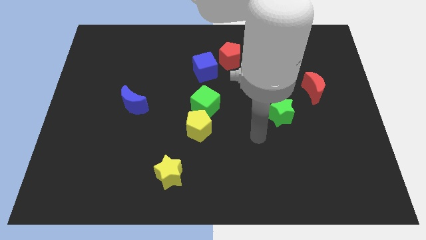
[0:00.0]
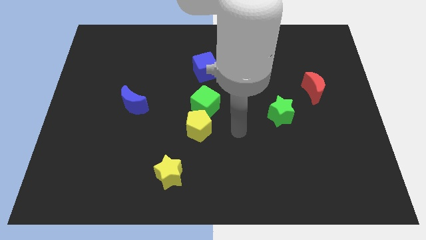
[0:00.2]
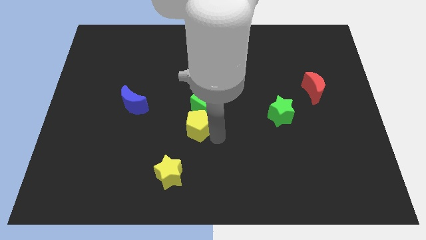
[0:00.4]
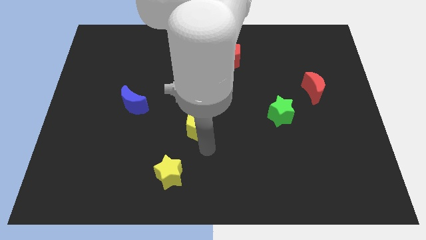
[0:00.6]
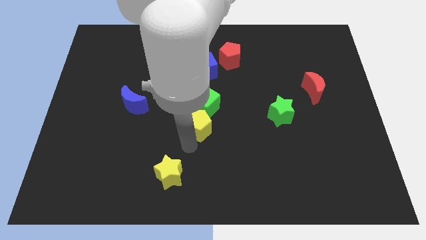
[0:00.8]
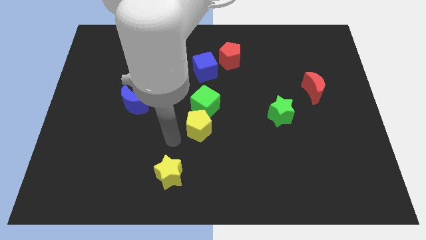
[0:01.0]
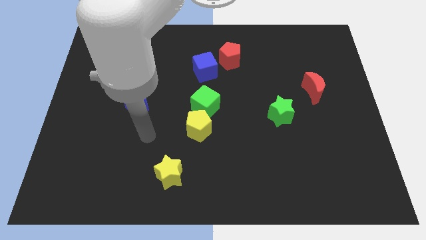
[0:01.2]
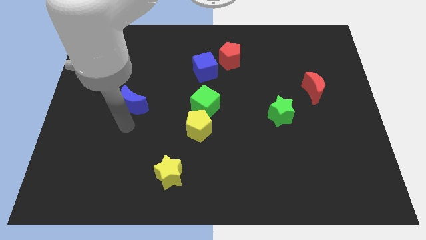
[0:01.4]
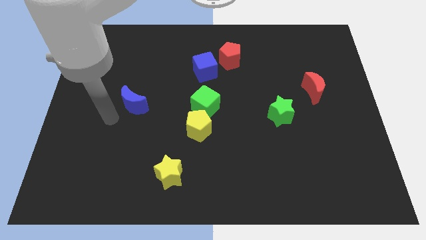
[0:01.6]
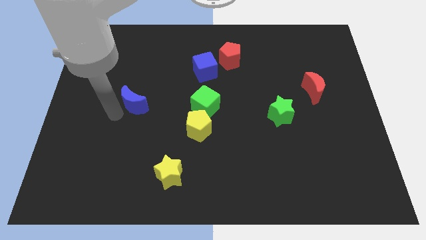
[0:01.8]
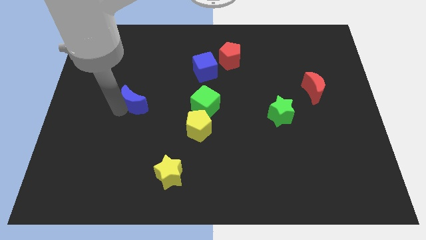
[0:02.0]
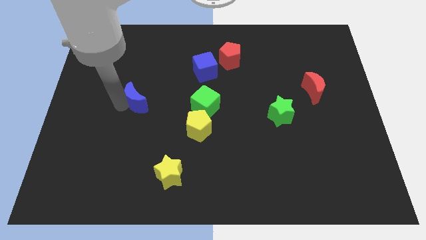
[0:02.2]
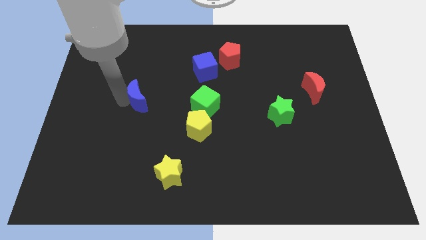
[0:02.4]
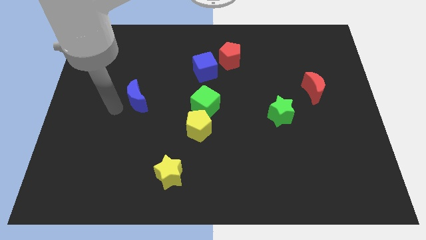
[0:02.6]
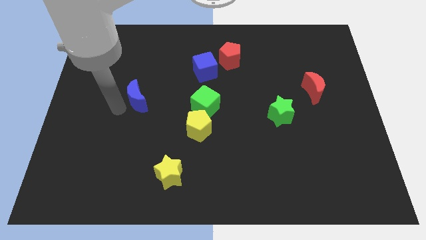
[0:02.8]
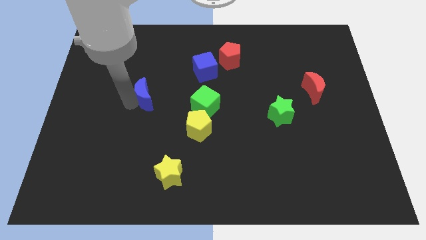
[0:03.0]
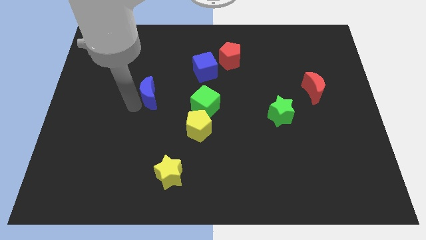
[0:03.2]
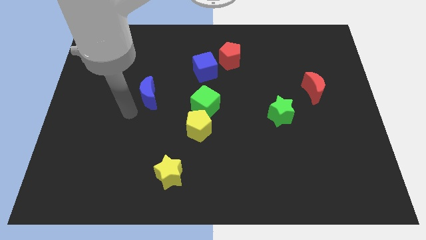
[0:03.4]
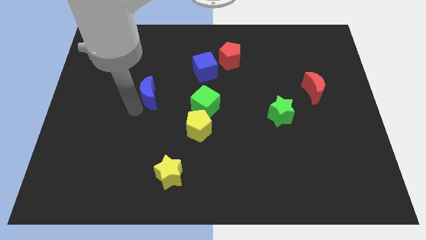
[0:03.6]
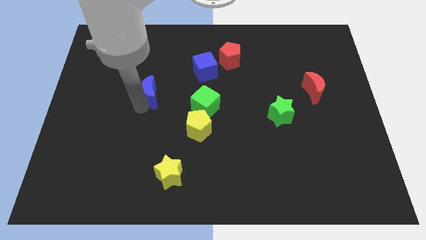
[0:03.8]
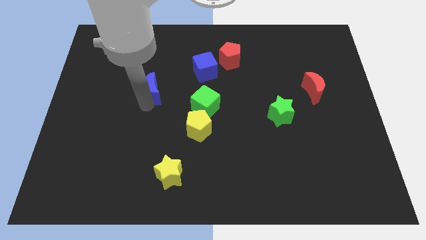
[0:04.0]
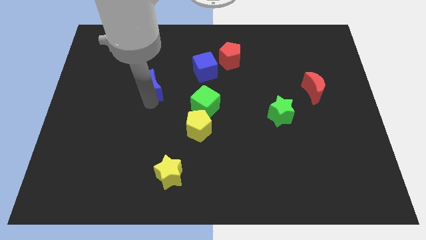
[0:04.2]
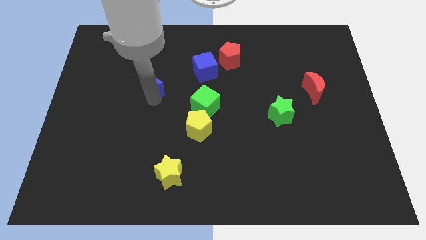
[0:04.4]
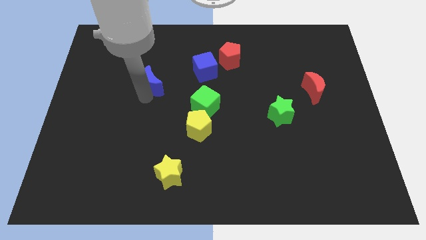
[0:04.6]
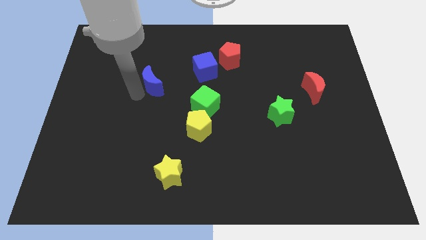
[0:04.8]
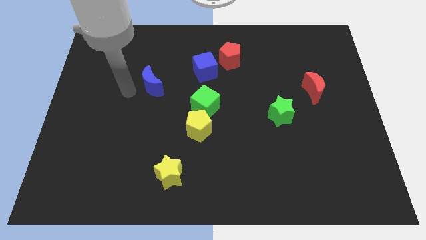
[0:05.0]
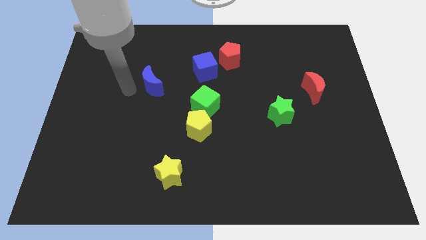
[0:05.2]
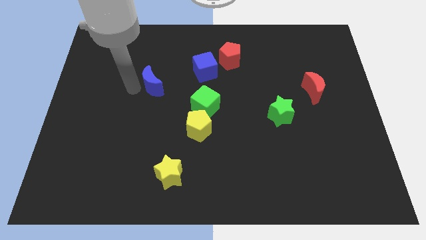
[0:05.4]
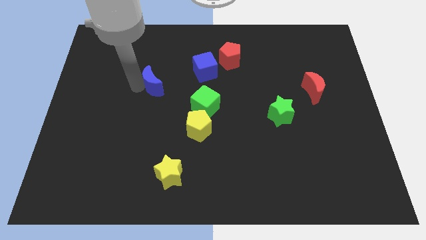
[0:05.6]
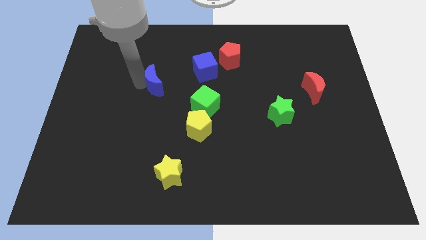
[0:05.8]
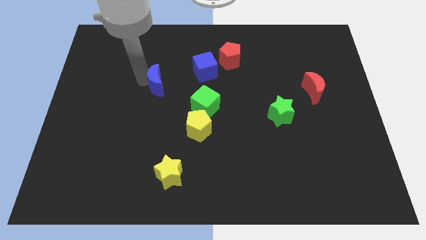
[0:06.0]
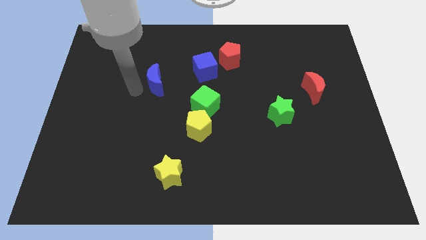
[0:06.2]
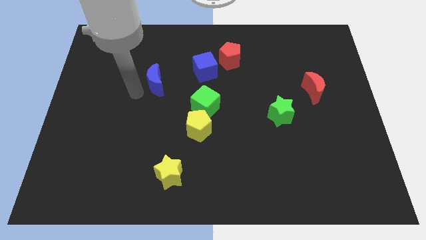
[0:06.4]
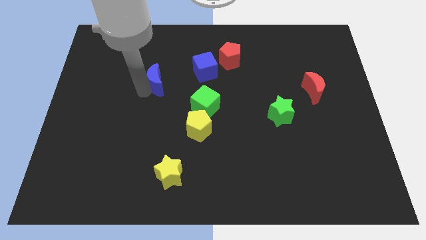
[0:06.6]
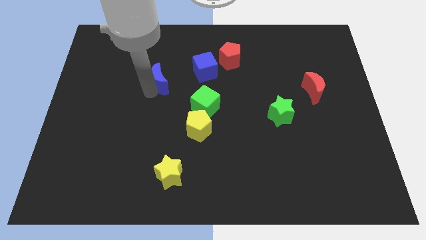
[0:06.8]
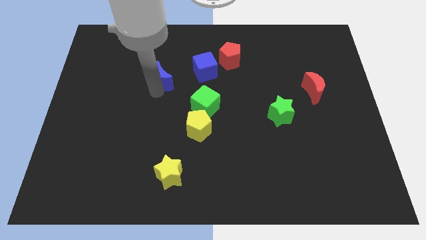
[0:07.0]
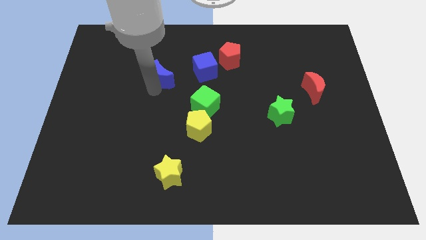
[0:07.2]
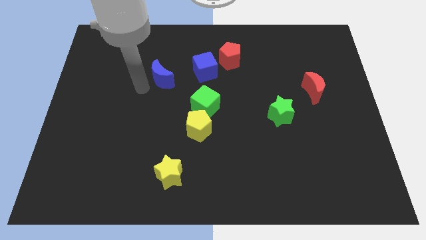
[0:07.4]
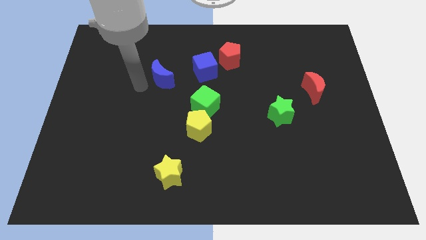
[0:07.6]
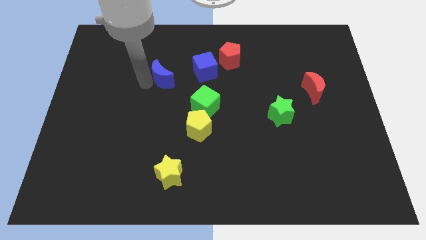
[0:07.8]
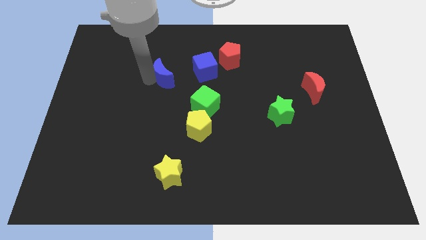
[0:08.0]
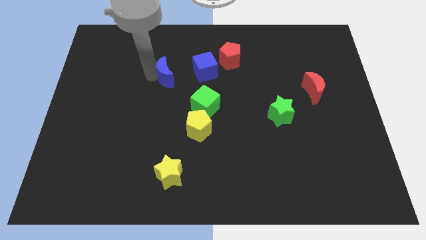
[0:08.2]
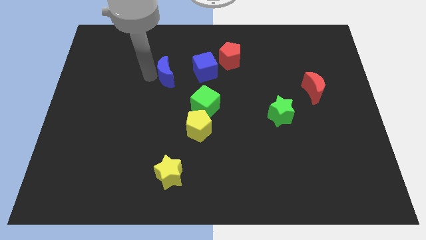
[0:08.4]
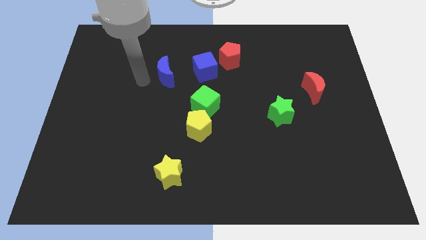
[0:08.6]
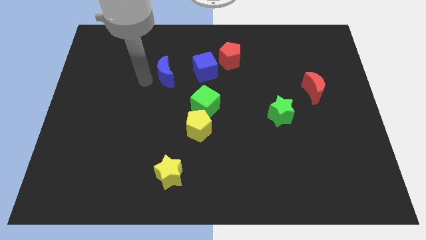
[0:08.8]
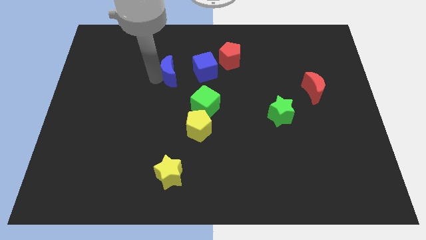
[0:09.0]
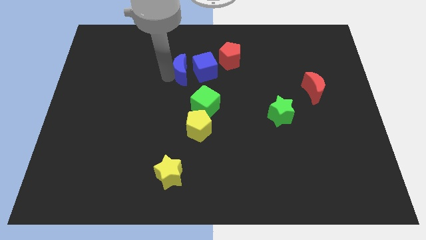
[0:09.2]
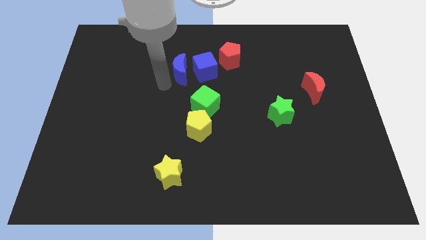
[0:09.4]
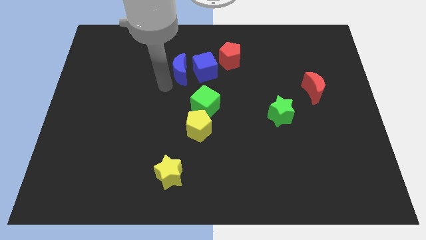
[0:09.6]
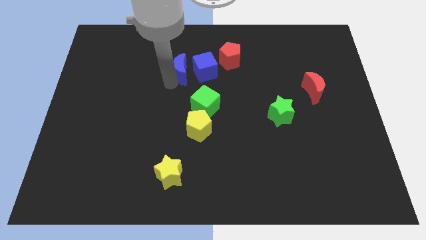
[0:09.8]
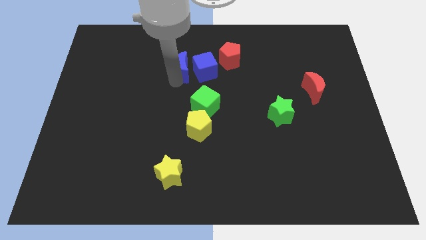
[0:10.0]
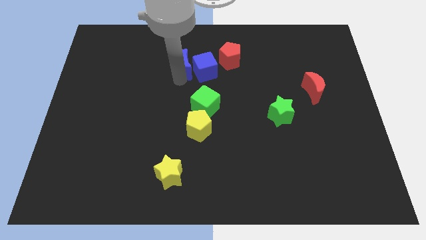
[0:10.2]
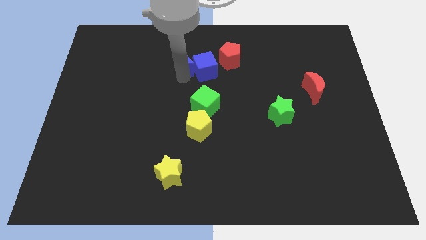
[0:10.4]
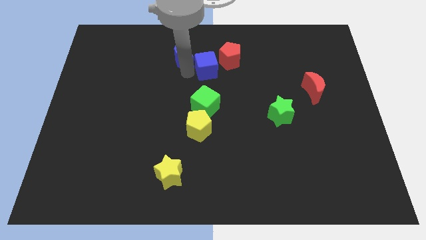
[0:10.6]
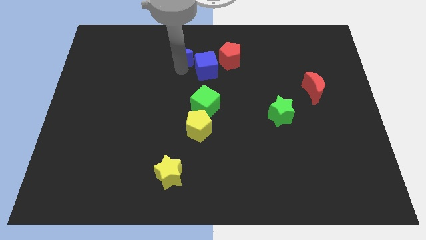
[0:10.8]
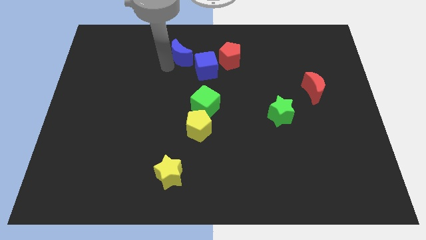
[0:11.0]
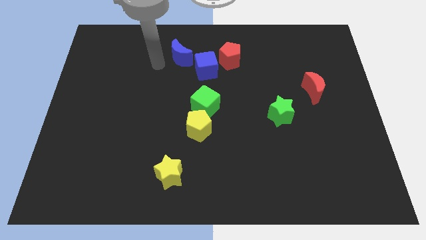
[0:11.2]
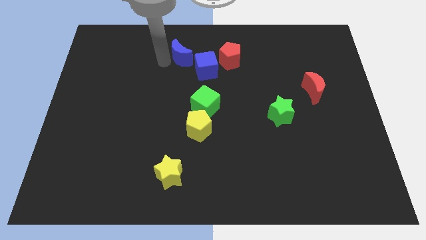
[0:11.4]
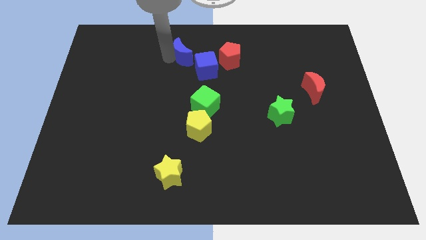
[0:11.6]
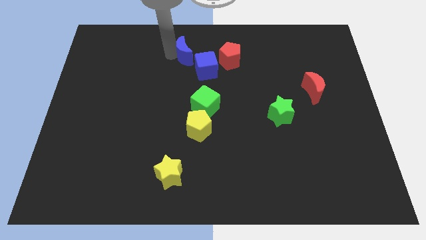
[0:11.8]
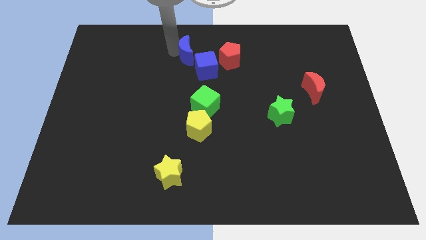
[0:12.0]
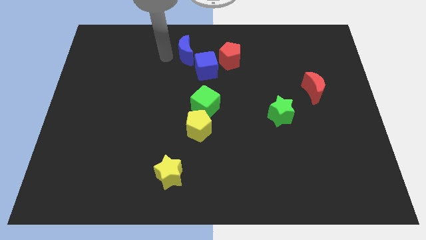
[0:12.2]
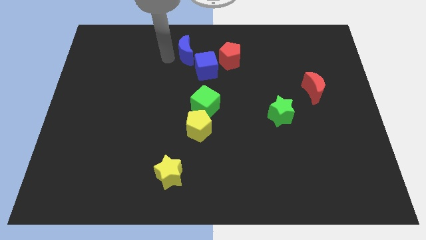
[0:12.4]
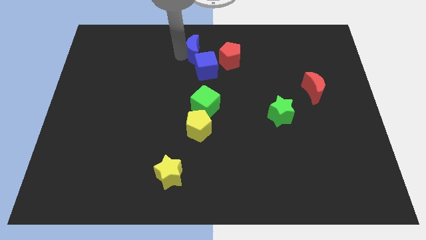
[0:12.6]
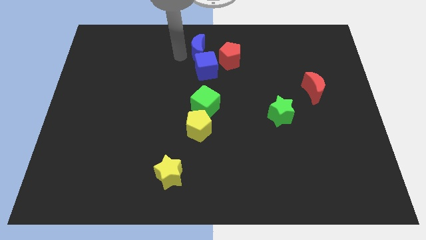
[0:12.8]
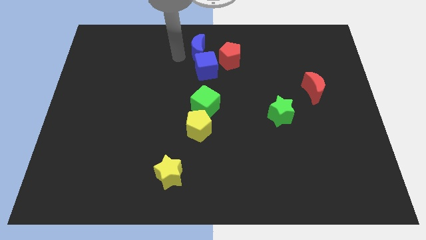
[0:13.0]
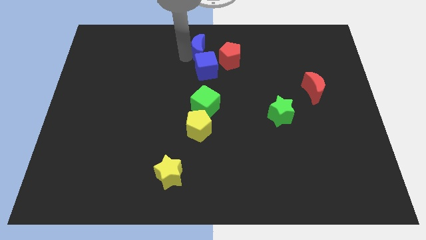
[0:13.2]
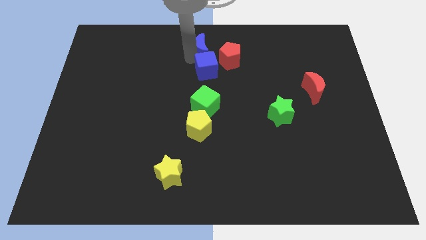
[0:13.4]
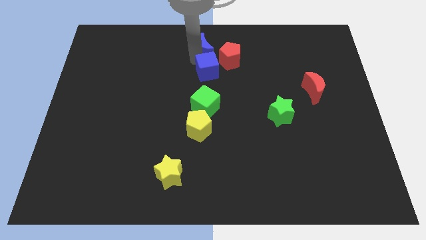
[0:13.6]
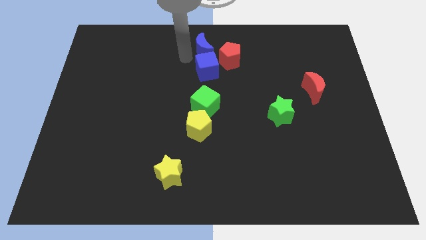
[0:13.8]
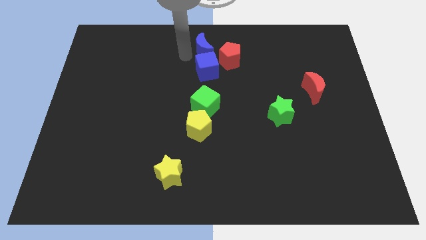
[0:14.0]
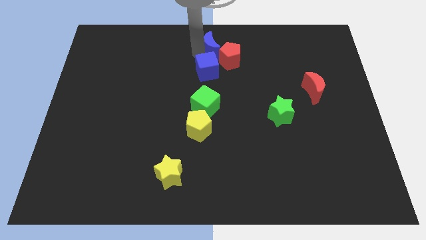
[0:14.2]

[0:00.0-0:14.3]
push the blue moon to the top right of the blue cube

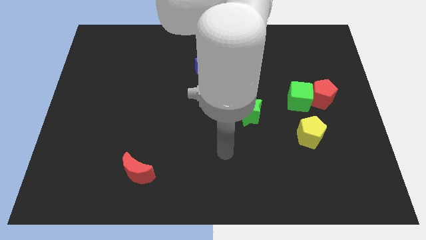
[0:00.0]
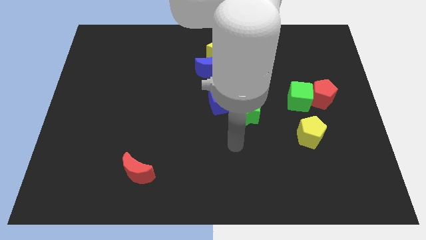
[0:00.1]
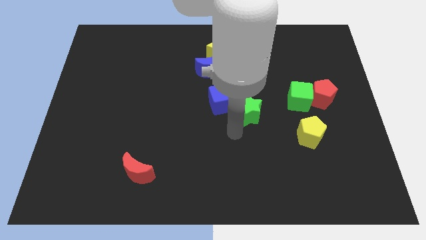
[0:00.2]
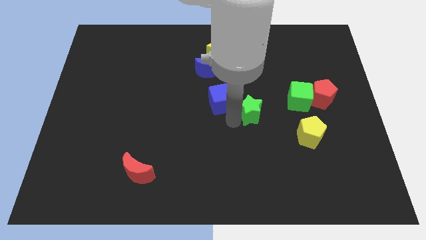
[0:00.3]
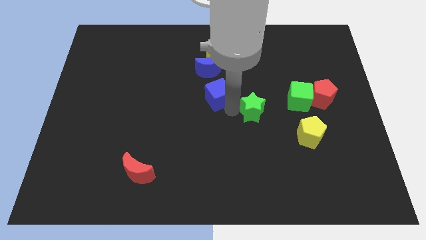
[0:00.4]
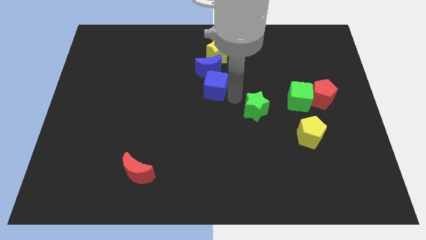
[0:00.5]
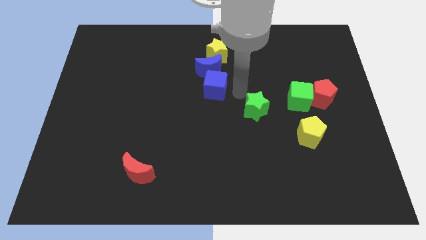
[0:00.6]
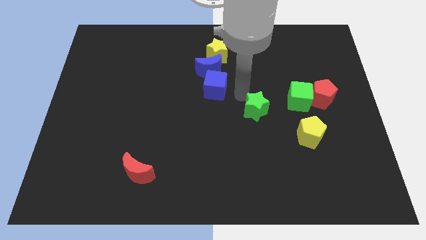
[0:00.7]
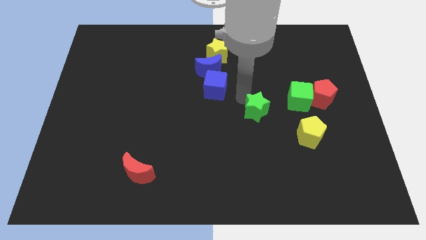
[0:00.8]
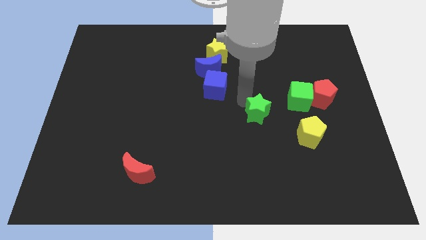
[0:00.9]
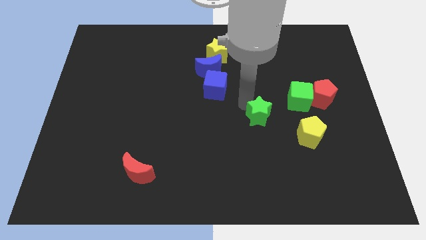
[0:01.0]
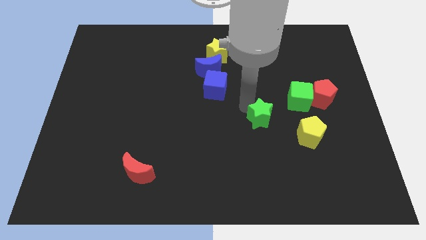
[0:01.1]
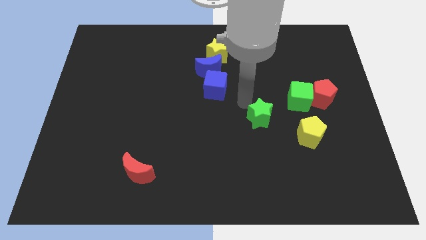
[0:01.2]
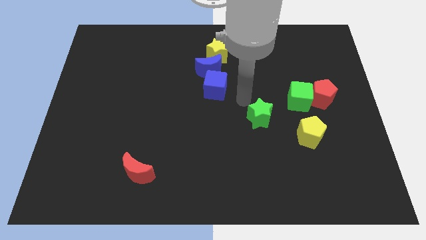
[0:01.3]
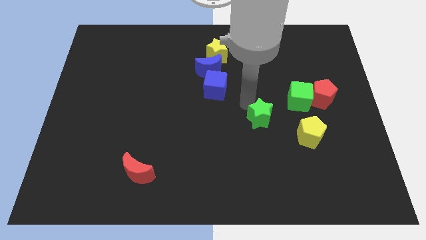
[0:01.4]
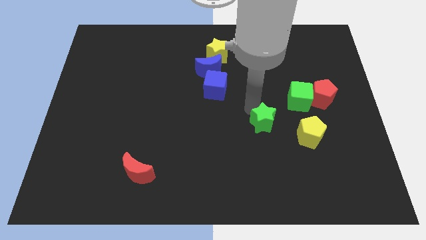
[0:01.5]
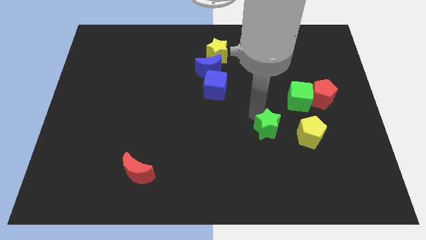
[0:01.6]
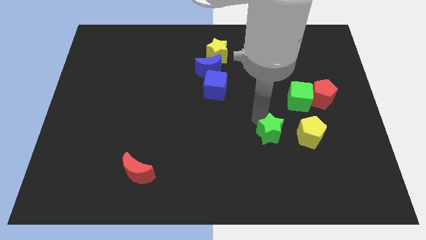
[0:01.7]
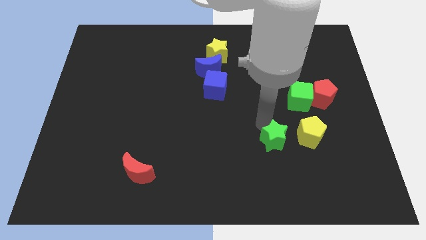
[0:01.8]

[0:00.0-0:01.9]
put the green star diagonally down and to the left of the yellow pentagon
